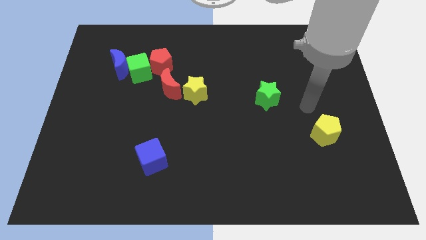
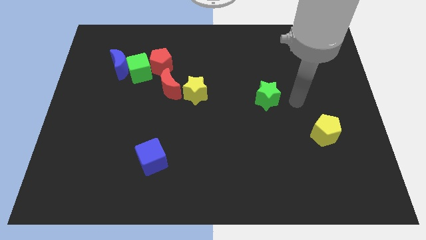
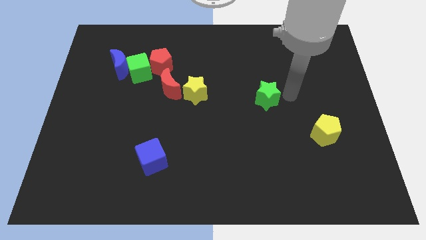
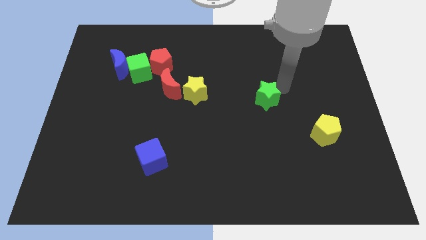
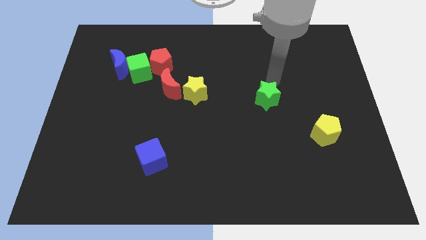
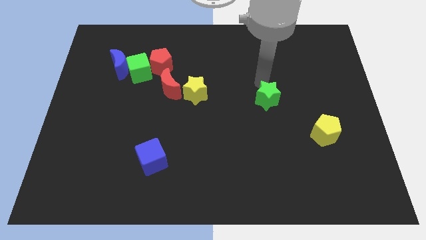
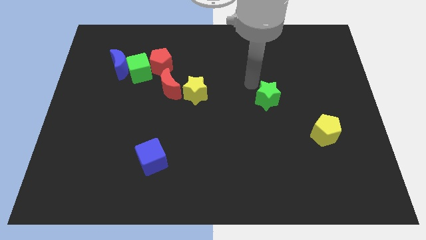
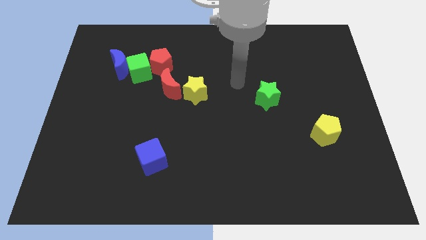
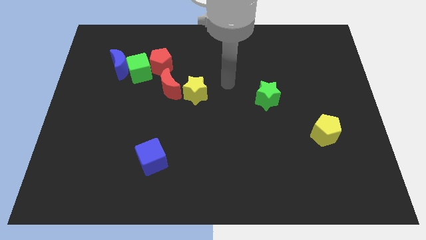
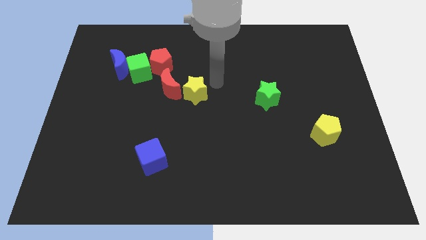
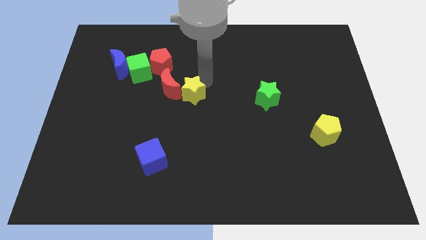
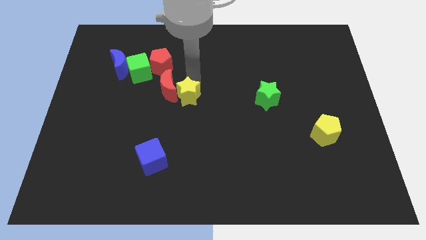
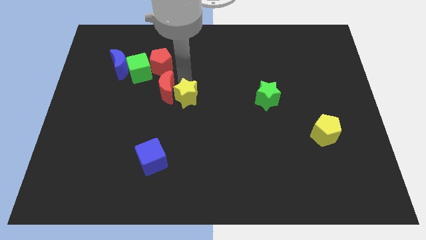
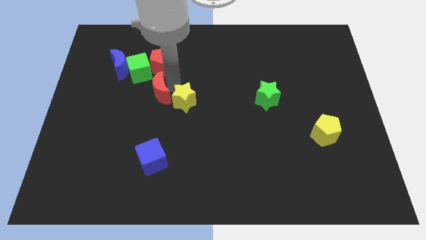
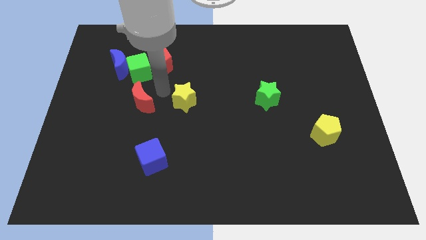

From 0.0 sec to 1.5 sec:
move the yellow star away from the red moon

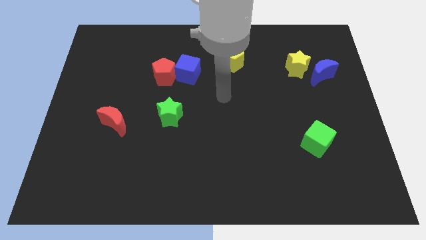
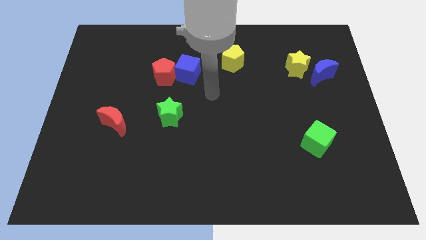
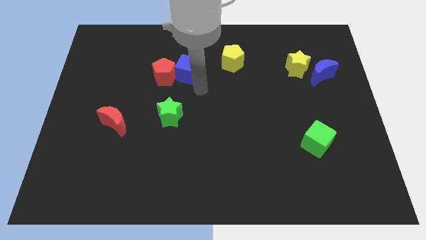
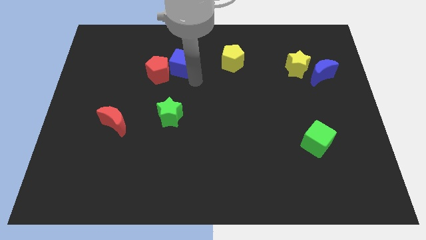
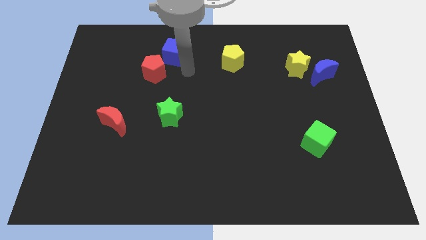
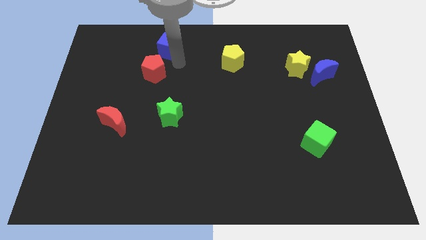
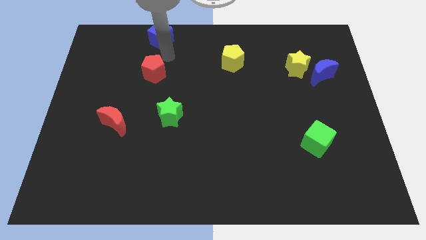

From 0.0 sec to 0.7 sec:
pull the red pentagon apart from the blue cube

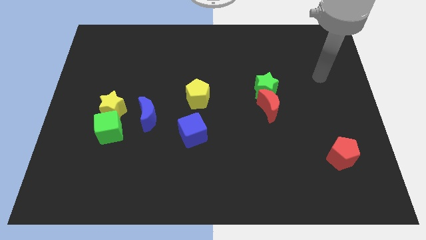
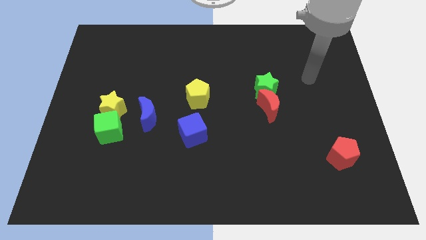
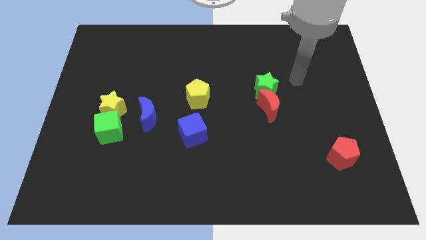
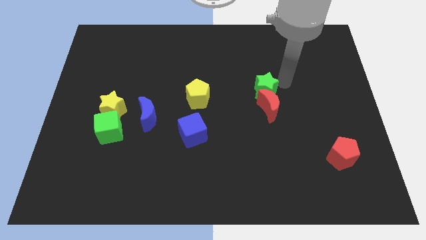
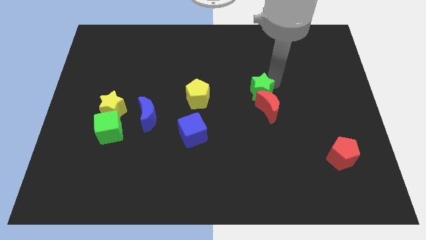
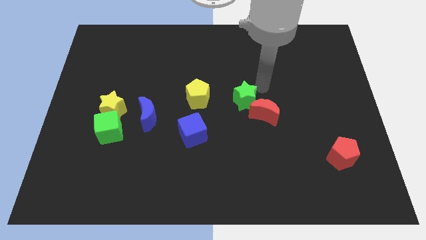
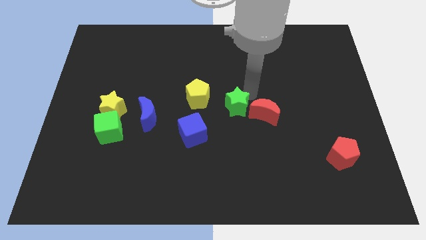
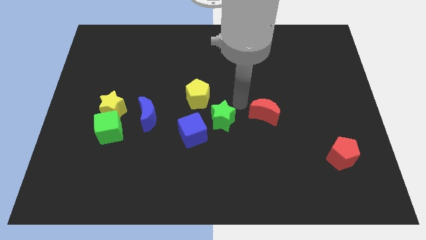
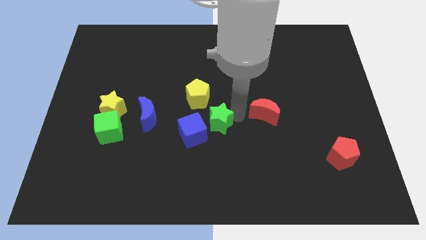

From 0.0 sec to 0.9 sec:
pull the red moon apart from the green star

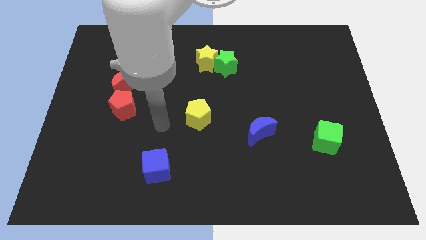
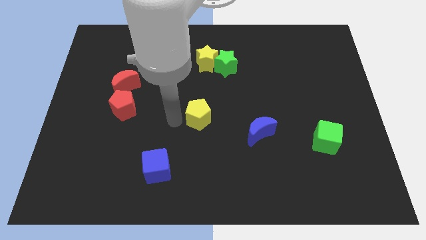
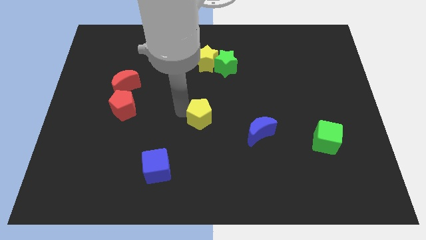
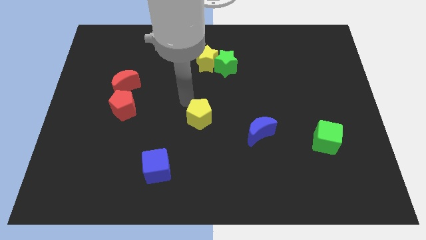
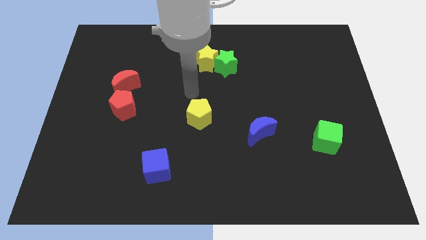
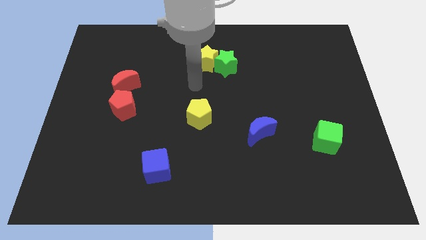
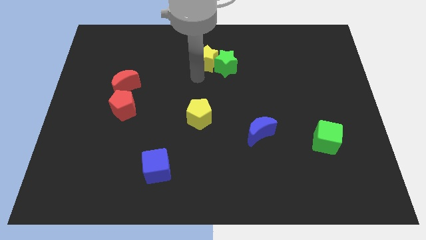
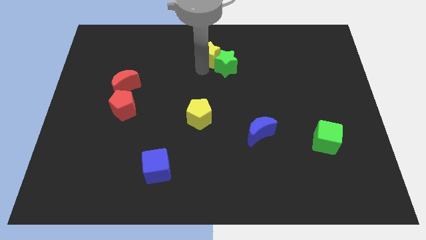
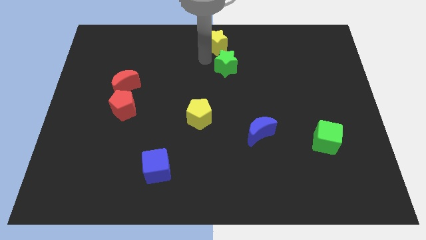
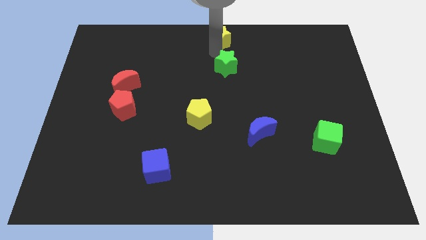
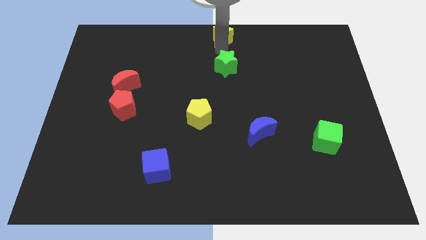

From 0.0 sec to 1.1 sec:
separate the green star from the yellow star

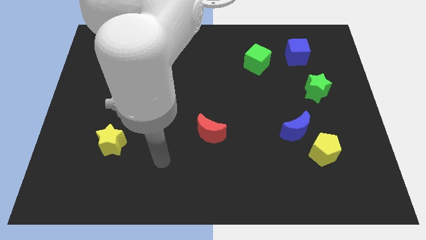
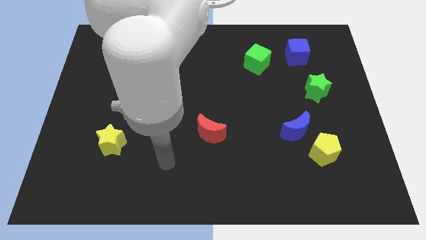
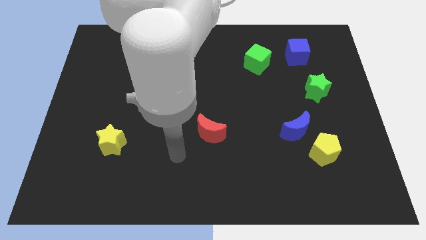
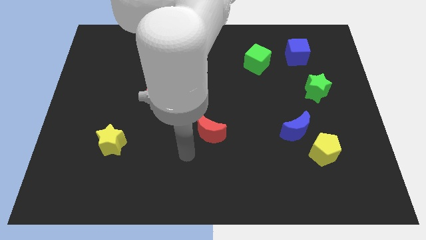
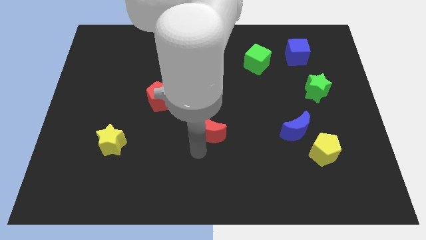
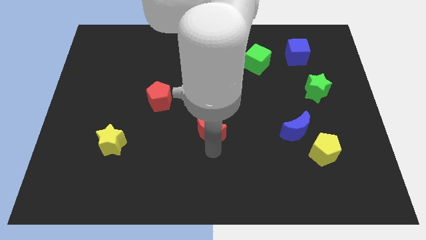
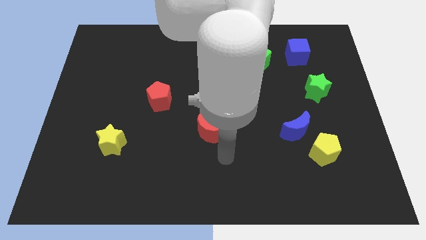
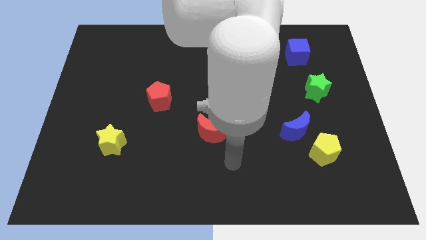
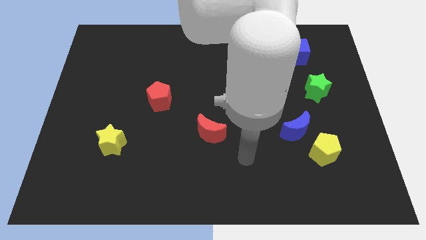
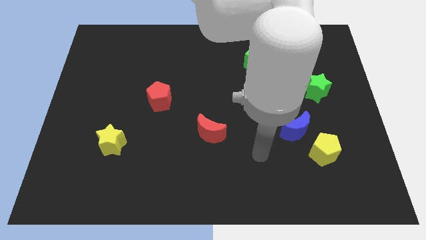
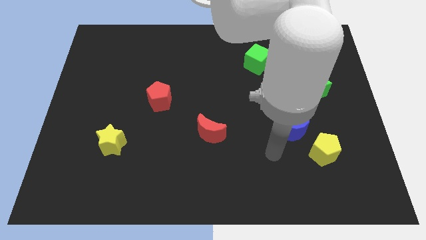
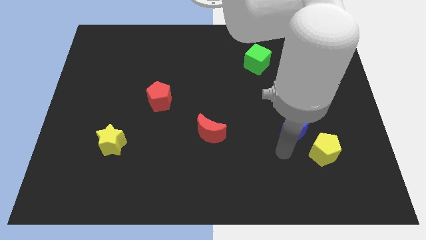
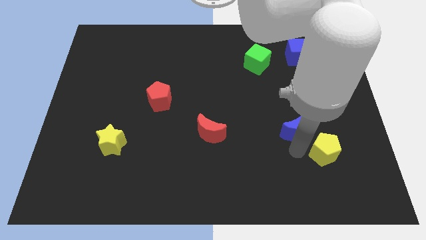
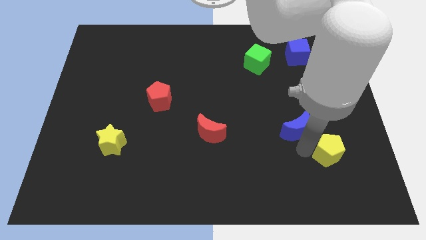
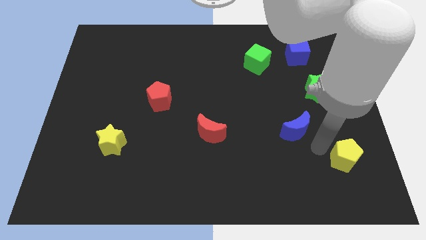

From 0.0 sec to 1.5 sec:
pull the blue moon apart from the yellow pentagon

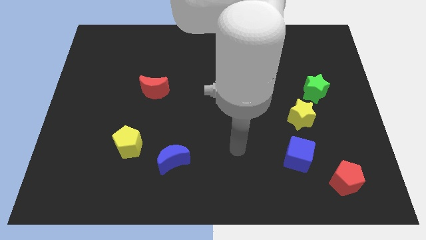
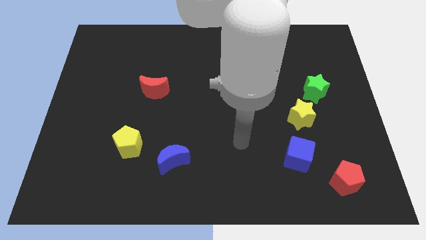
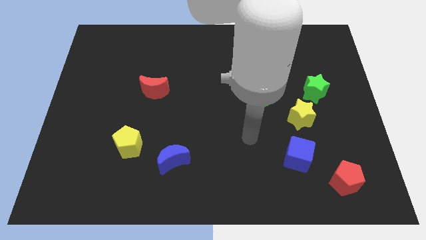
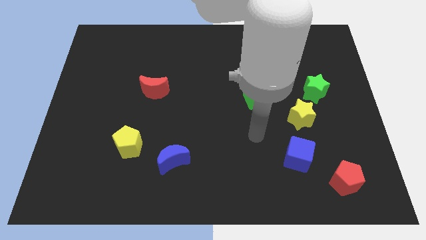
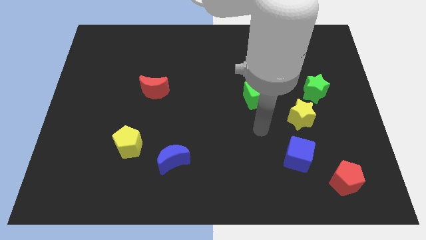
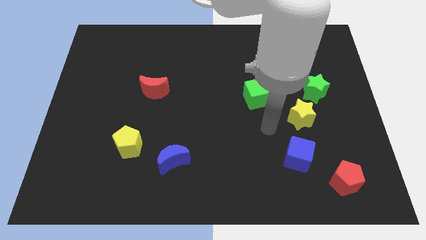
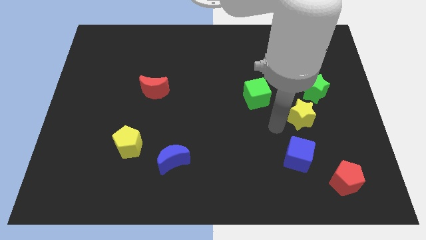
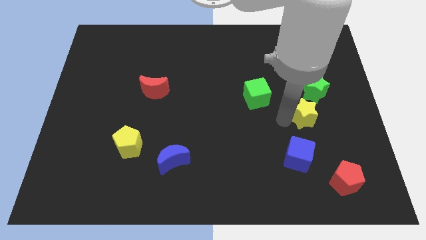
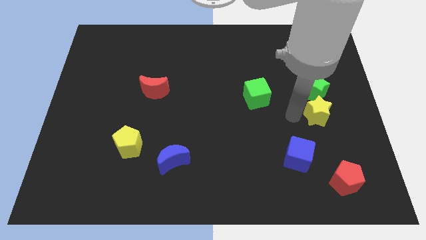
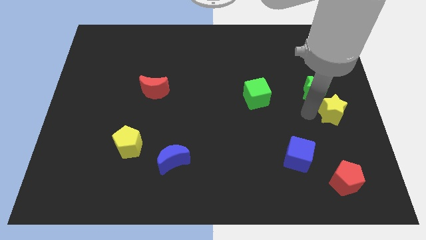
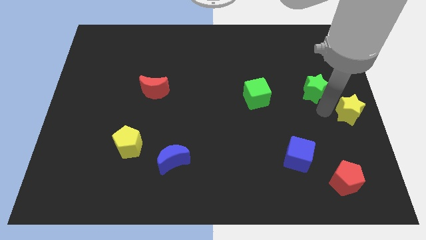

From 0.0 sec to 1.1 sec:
move the green star away from the yellow star

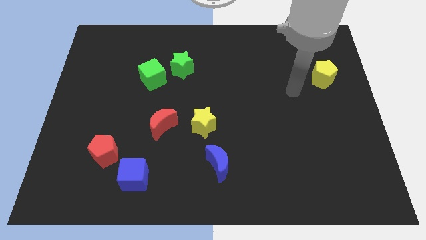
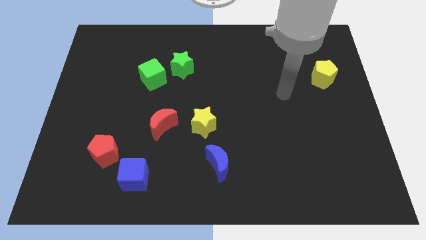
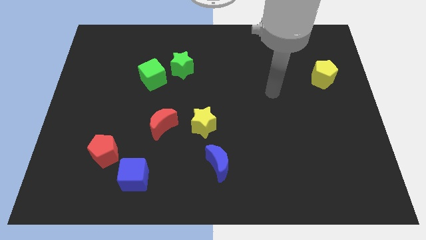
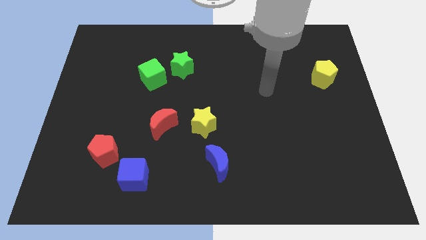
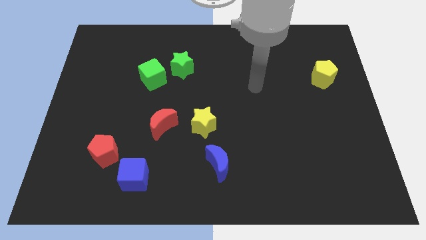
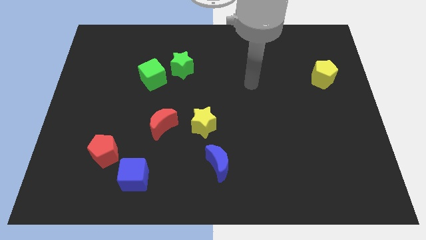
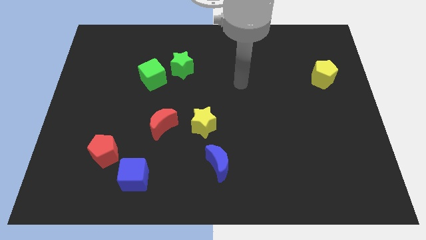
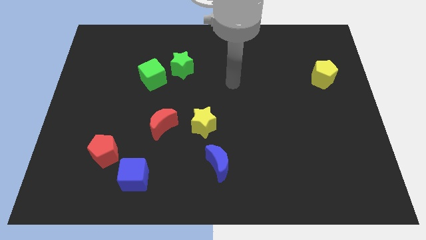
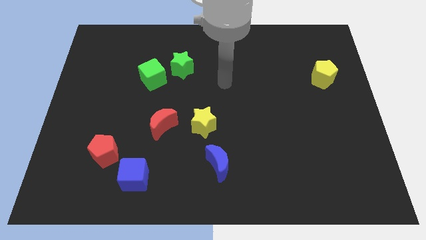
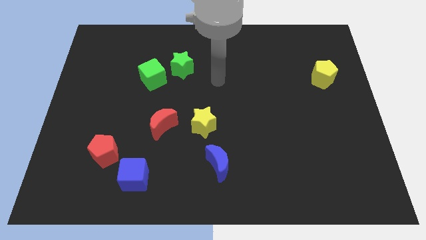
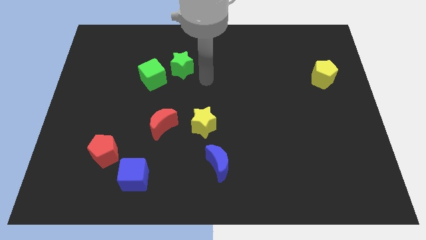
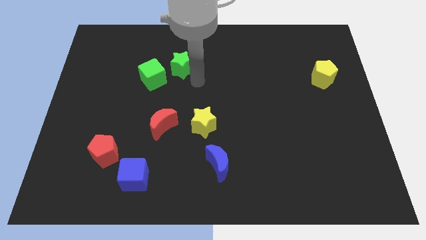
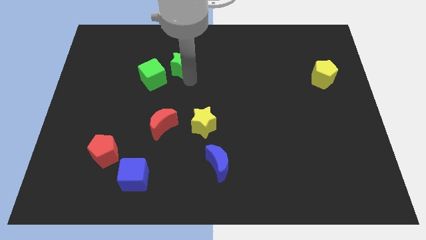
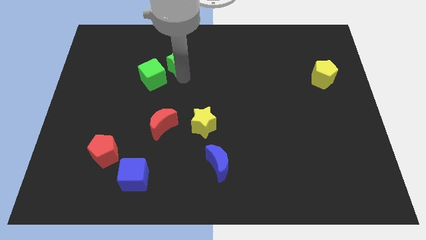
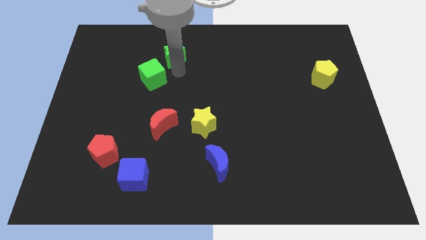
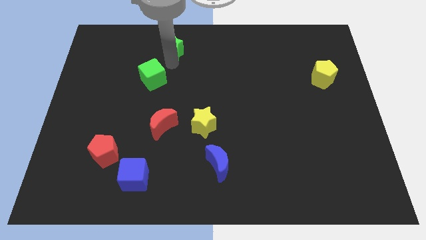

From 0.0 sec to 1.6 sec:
separate the green cube from the green star

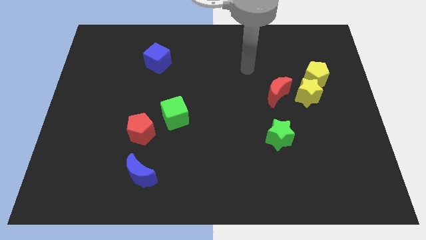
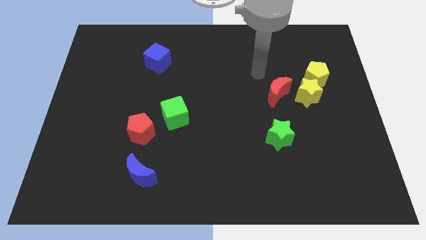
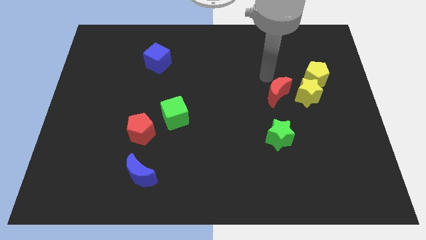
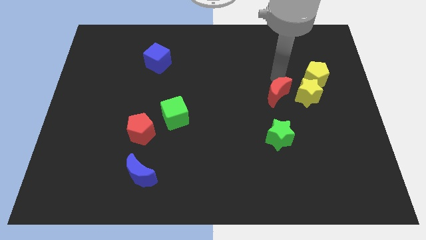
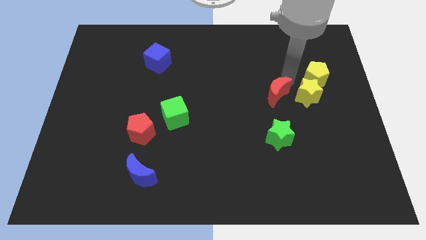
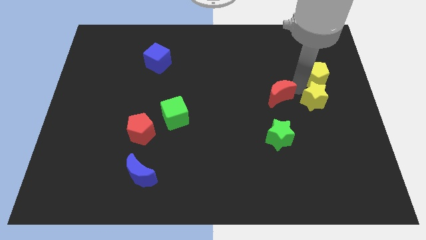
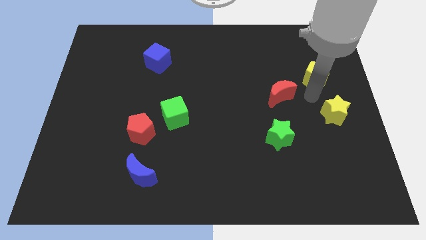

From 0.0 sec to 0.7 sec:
pull the yellow pentagon apart from the yellow star

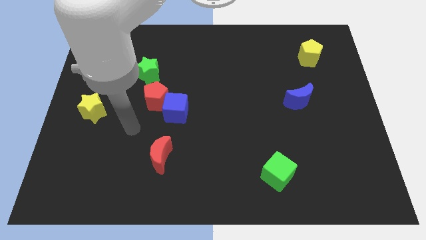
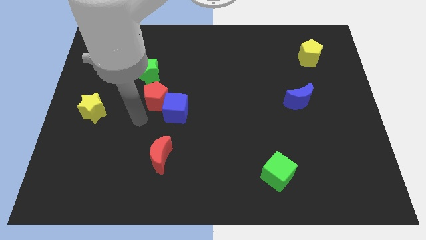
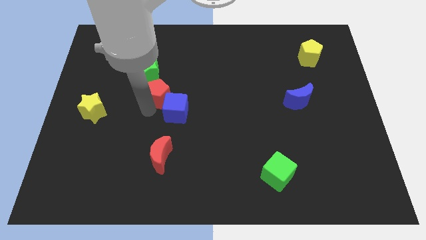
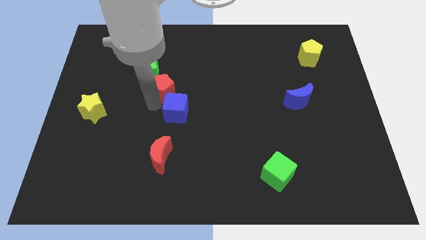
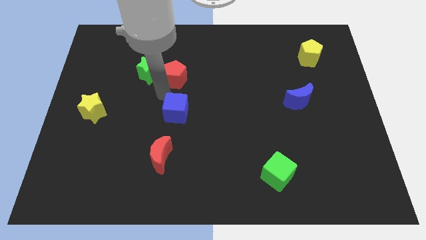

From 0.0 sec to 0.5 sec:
separate the blue cube from the red pentagon
